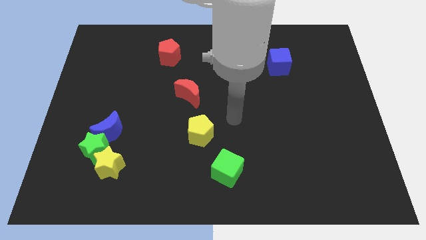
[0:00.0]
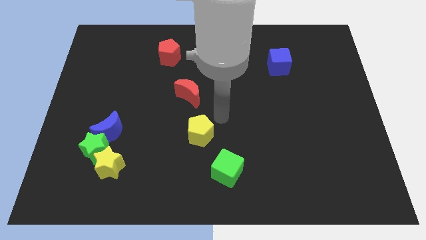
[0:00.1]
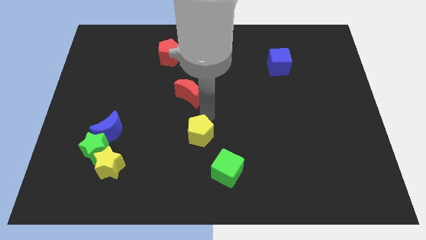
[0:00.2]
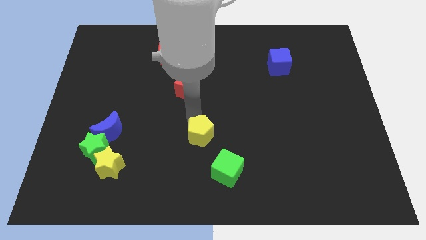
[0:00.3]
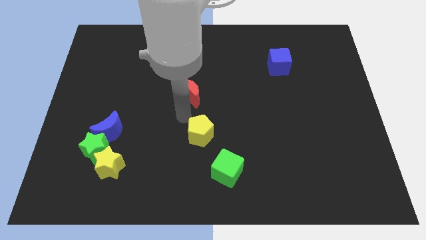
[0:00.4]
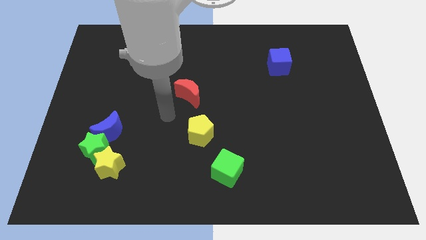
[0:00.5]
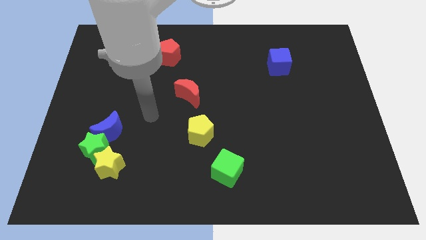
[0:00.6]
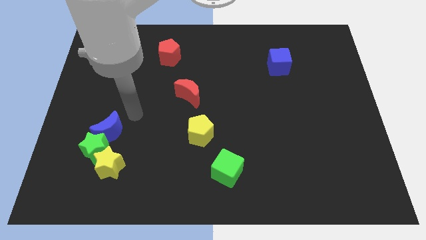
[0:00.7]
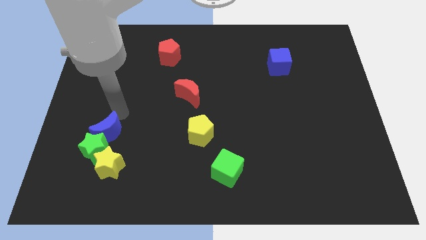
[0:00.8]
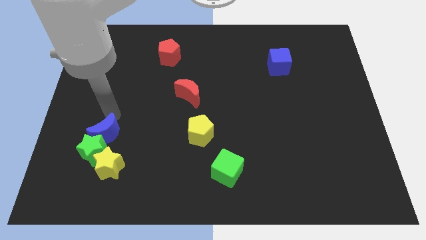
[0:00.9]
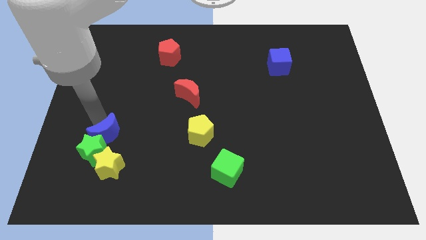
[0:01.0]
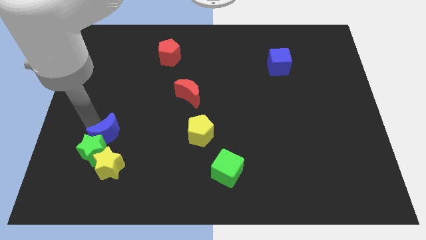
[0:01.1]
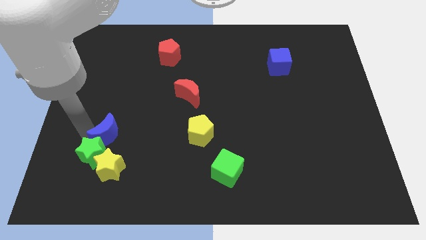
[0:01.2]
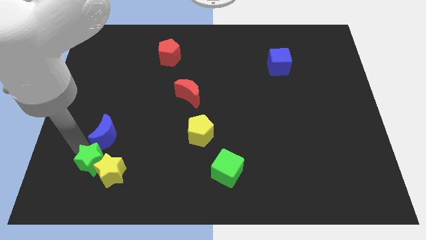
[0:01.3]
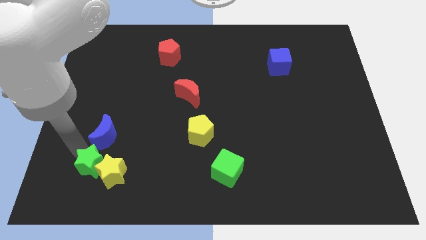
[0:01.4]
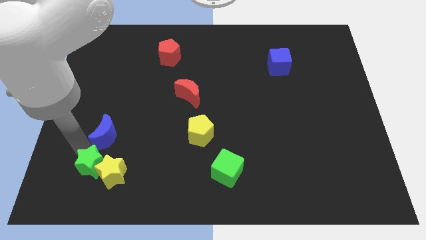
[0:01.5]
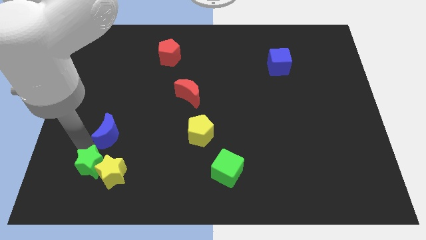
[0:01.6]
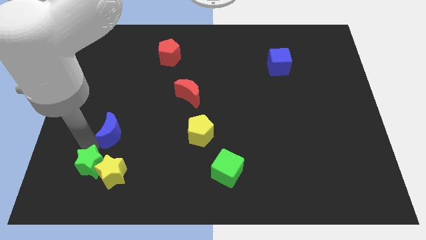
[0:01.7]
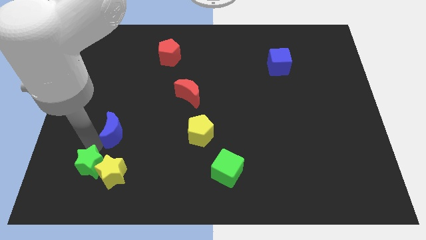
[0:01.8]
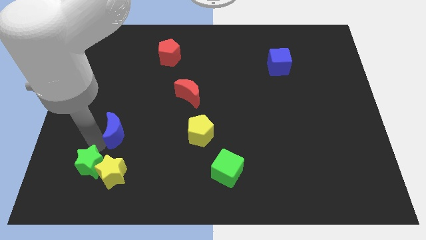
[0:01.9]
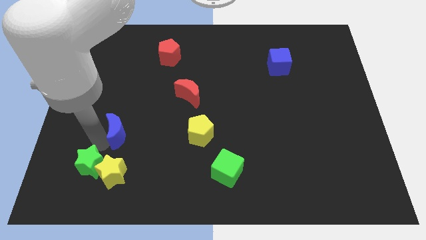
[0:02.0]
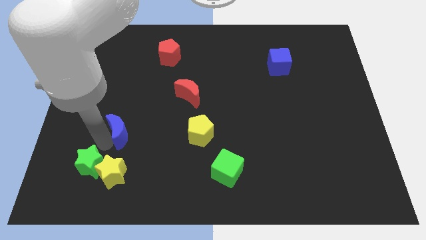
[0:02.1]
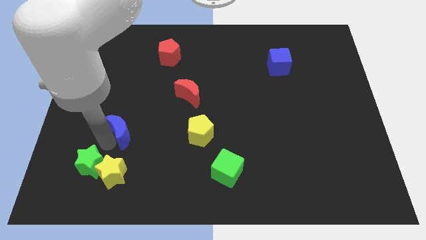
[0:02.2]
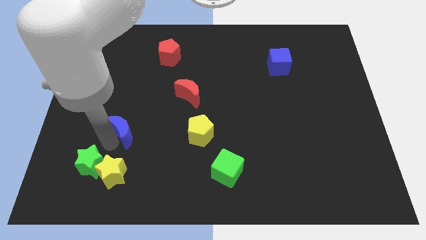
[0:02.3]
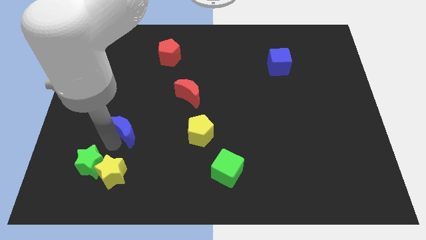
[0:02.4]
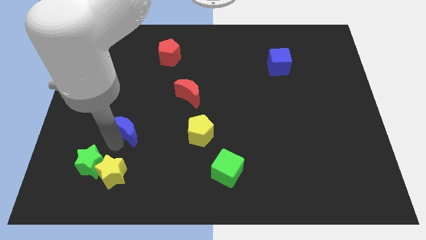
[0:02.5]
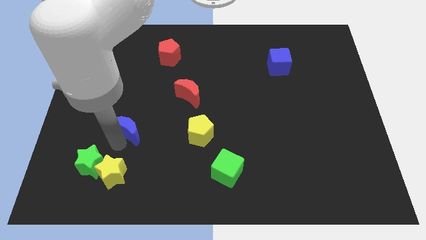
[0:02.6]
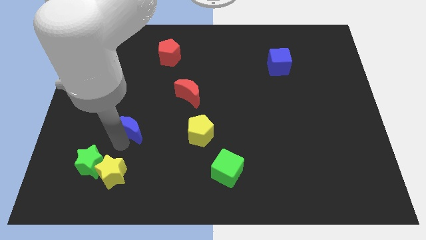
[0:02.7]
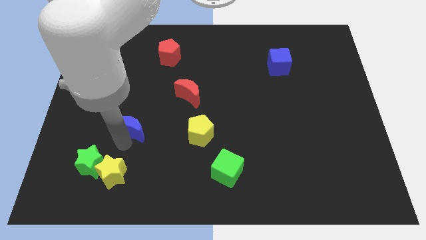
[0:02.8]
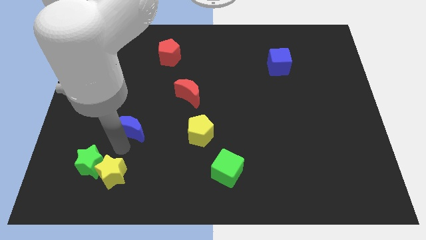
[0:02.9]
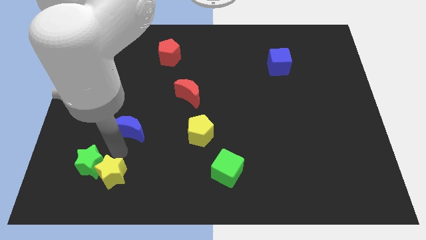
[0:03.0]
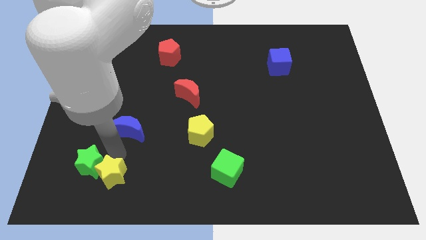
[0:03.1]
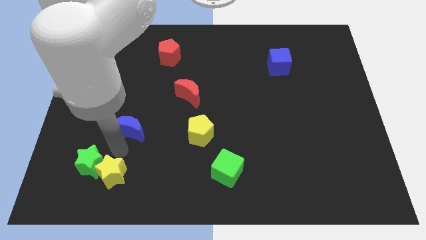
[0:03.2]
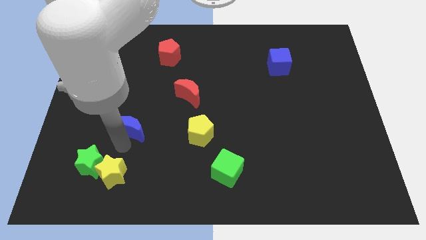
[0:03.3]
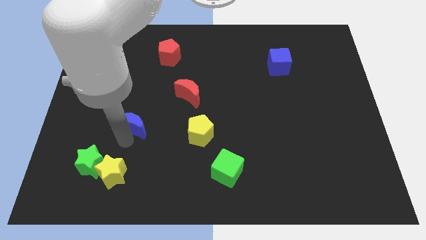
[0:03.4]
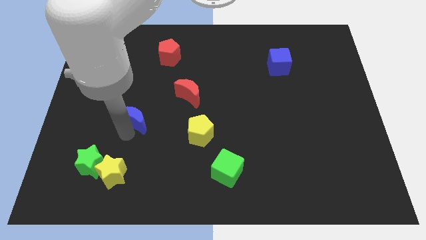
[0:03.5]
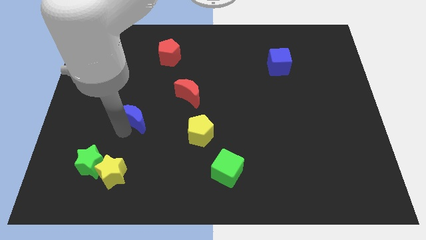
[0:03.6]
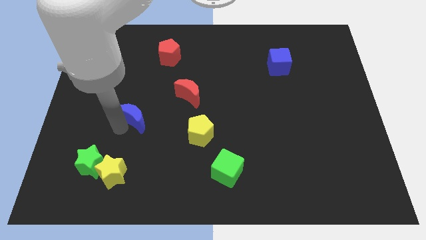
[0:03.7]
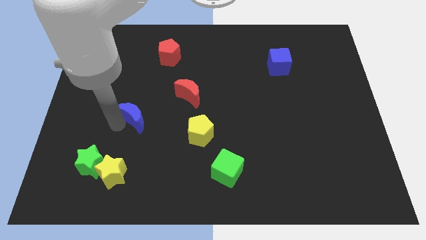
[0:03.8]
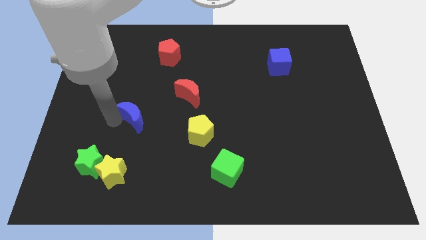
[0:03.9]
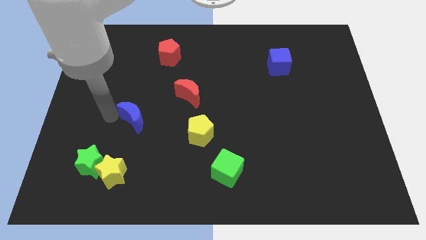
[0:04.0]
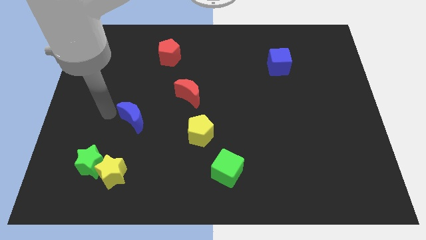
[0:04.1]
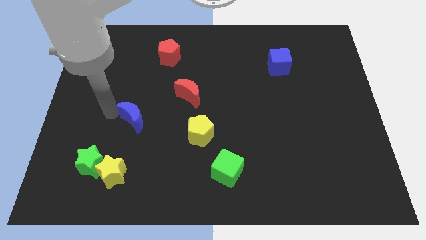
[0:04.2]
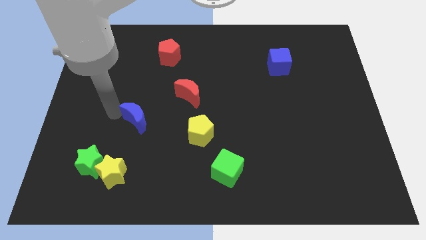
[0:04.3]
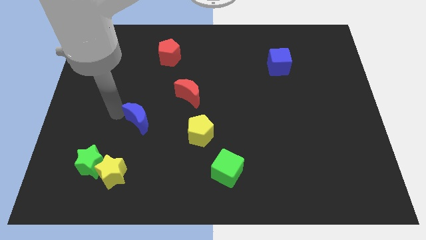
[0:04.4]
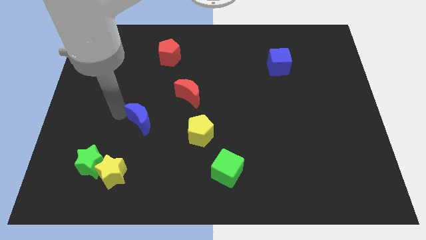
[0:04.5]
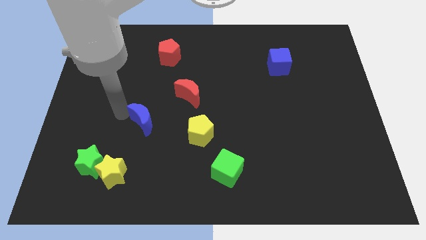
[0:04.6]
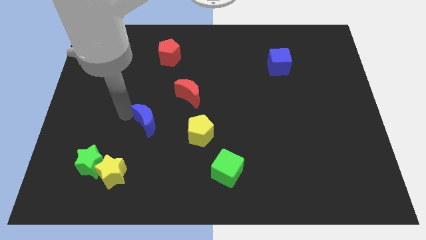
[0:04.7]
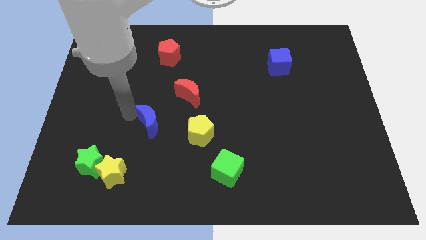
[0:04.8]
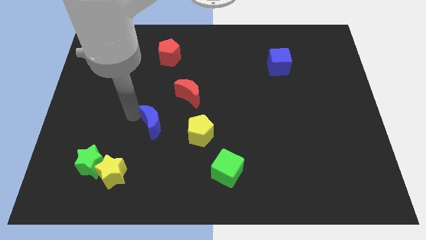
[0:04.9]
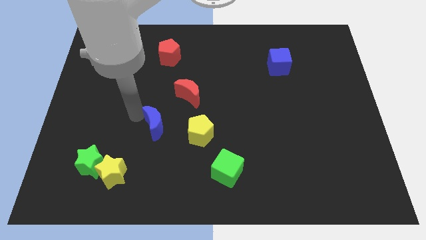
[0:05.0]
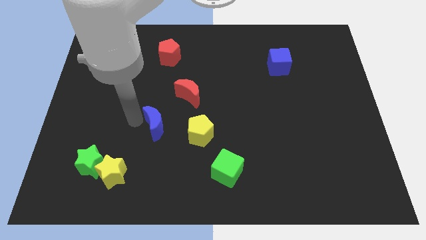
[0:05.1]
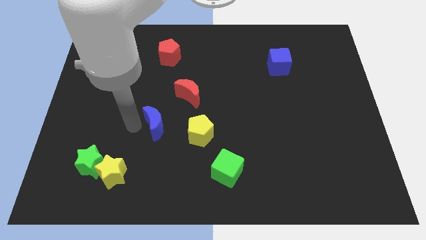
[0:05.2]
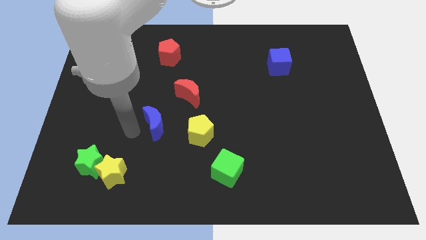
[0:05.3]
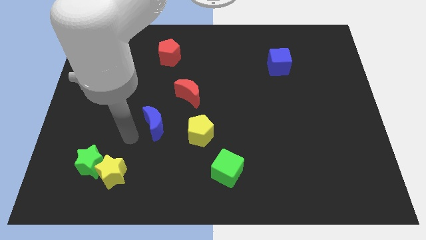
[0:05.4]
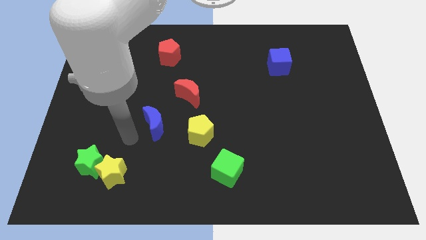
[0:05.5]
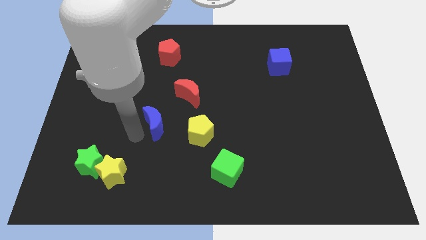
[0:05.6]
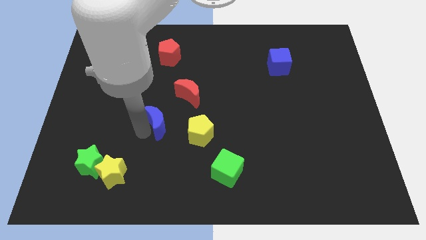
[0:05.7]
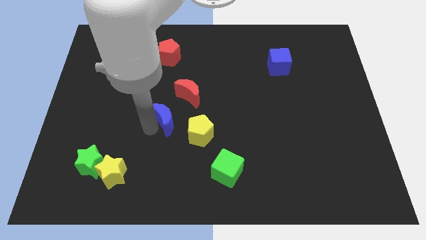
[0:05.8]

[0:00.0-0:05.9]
push the blue moon to the middle
